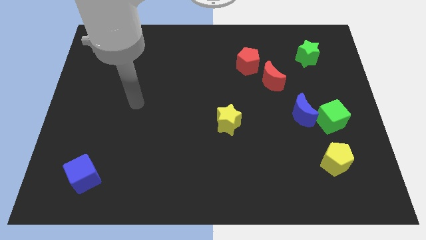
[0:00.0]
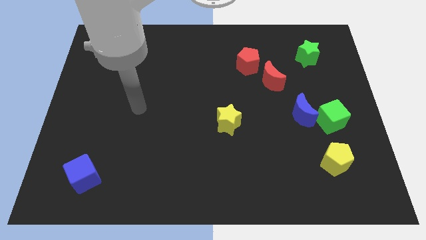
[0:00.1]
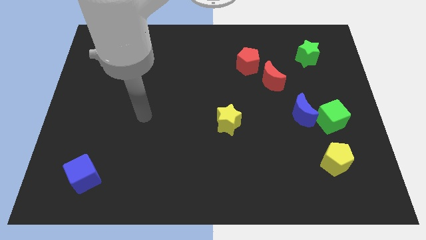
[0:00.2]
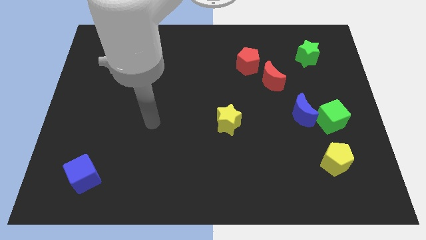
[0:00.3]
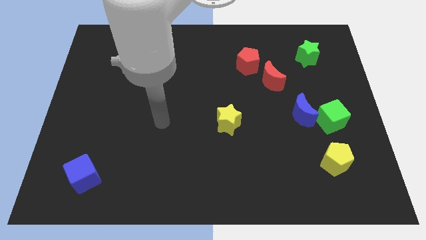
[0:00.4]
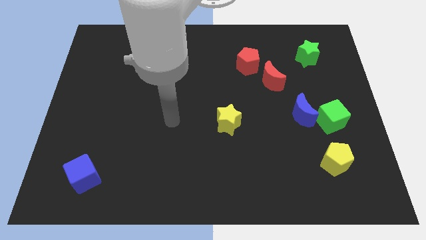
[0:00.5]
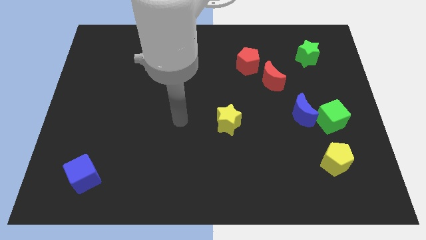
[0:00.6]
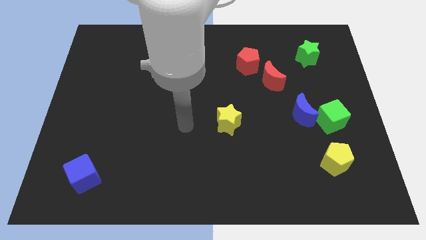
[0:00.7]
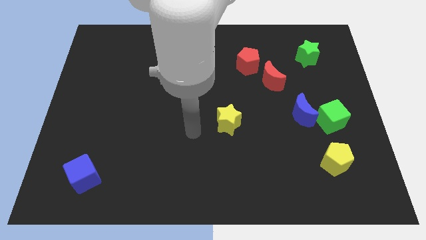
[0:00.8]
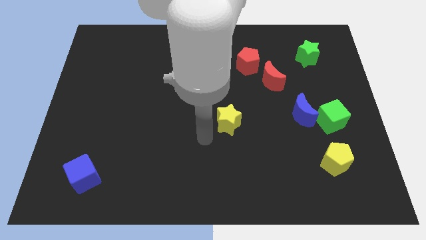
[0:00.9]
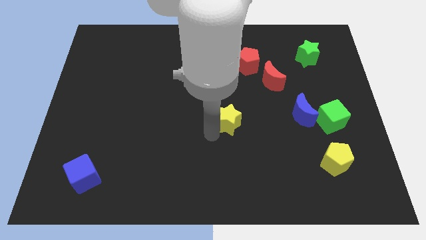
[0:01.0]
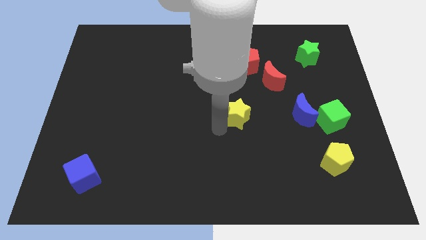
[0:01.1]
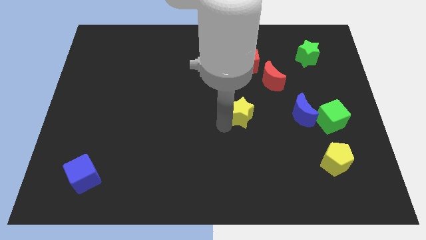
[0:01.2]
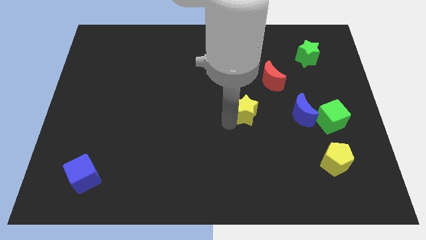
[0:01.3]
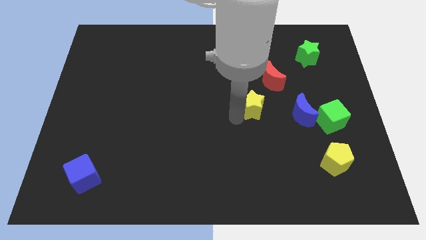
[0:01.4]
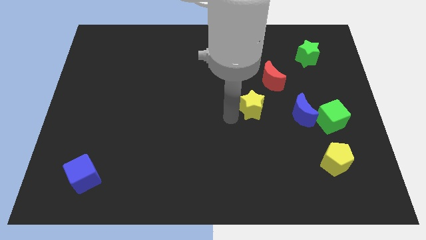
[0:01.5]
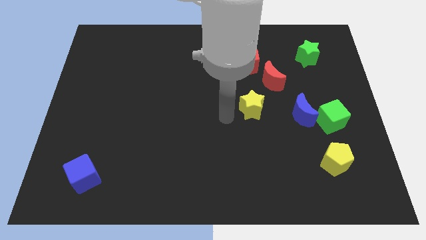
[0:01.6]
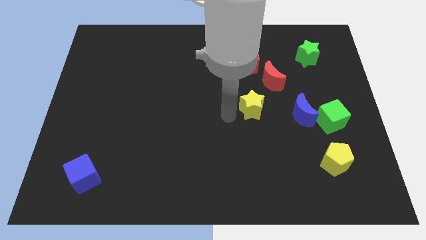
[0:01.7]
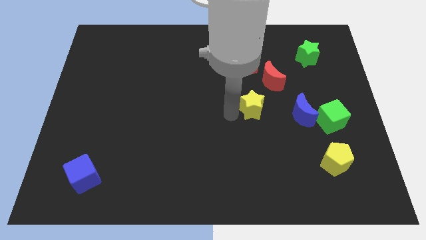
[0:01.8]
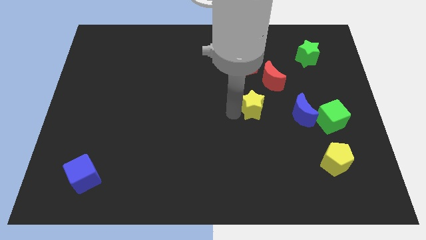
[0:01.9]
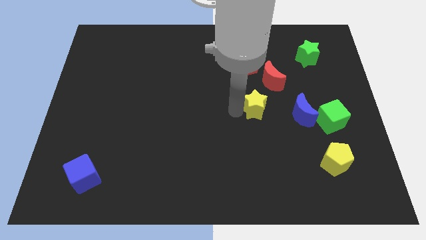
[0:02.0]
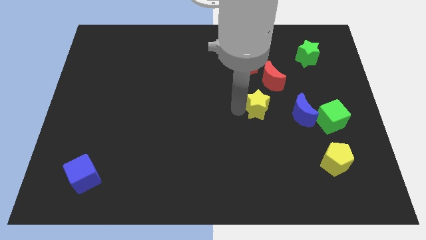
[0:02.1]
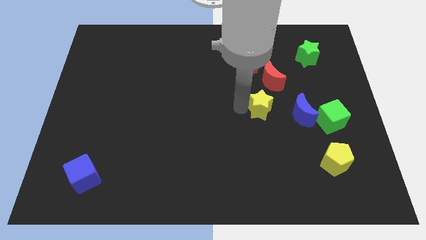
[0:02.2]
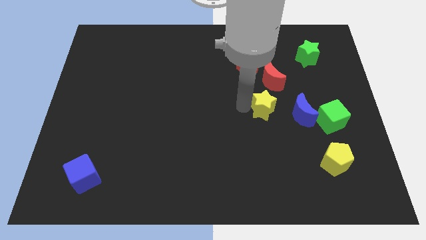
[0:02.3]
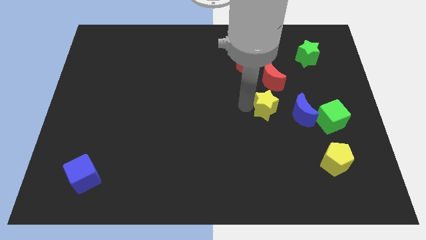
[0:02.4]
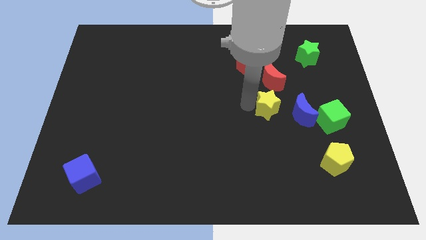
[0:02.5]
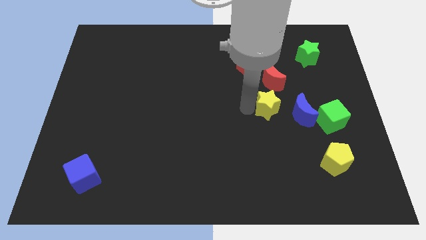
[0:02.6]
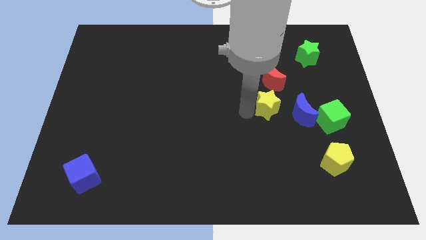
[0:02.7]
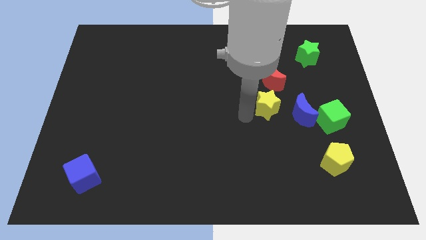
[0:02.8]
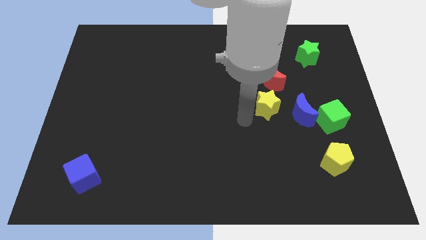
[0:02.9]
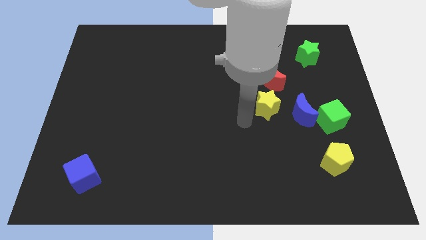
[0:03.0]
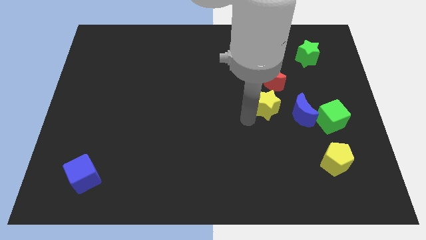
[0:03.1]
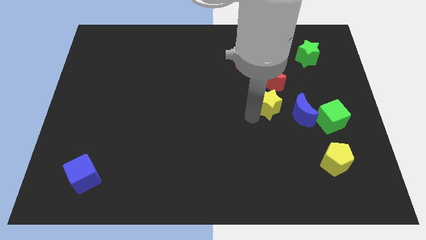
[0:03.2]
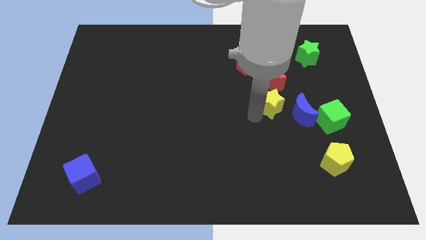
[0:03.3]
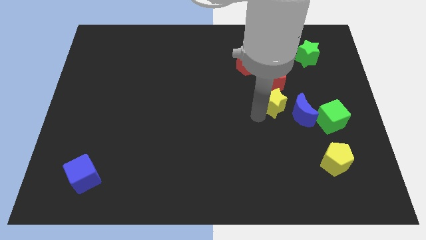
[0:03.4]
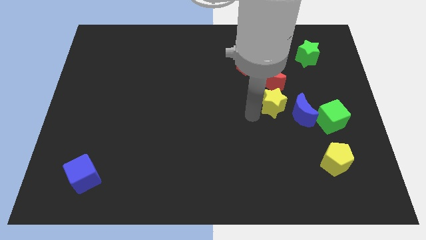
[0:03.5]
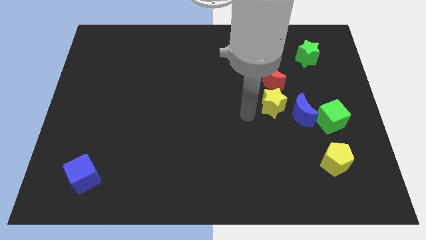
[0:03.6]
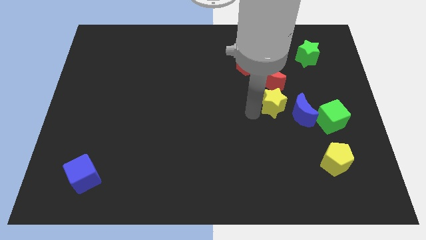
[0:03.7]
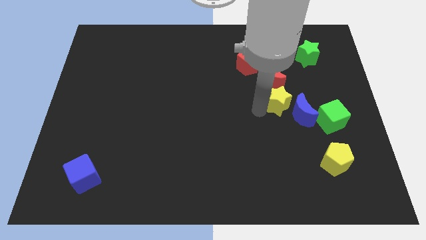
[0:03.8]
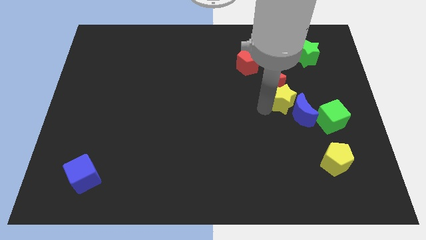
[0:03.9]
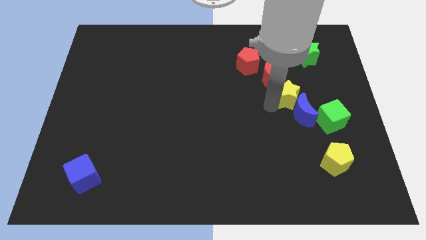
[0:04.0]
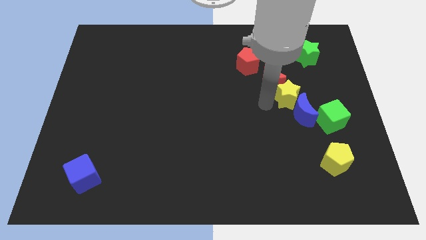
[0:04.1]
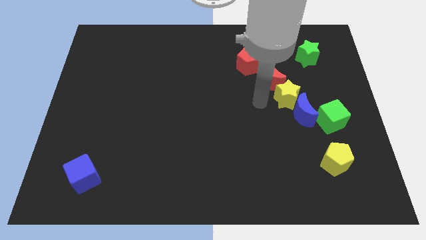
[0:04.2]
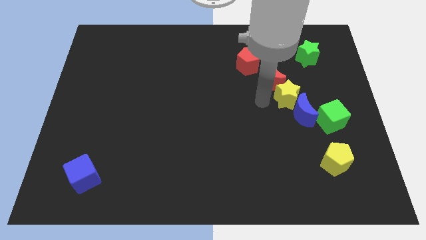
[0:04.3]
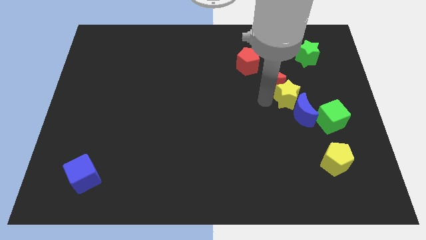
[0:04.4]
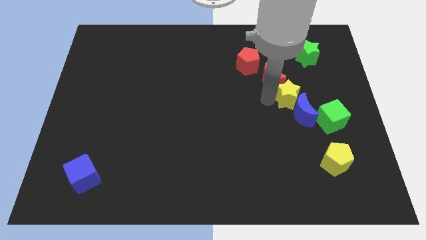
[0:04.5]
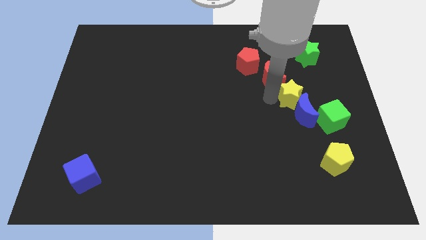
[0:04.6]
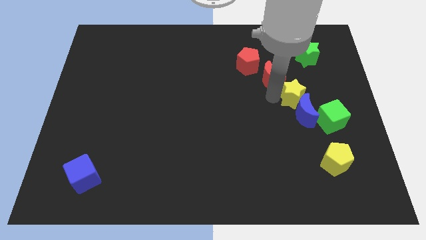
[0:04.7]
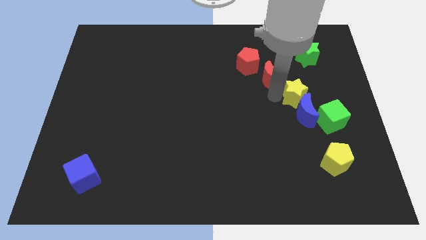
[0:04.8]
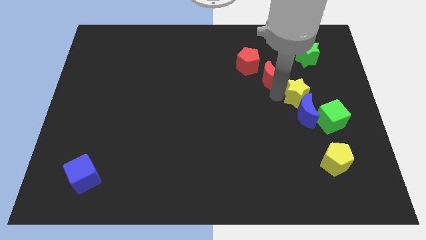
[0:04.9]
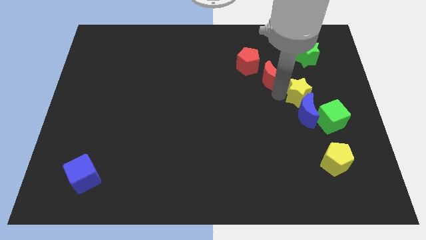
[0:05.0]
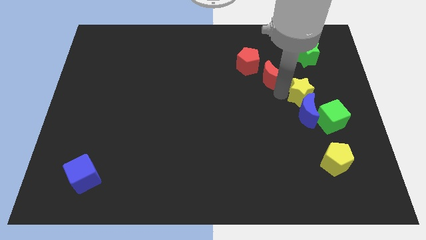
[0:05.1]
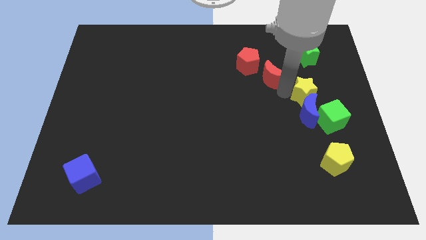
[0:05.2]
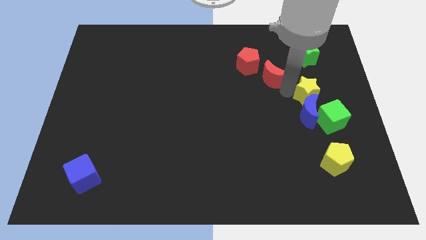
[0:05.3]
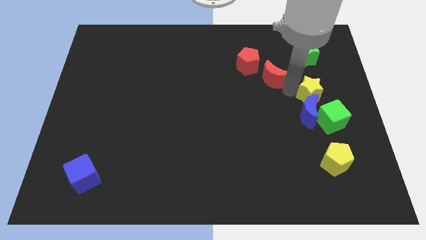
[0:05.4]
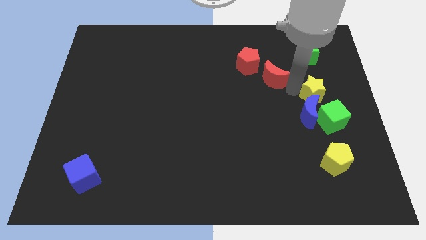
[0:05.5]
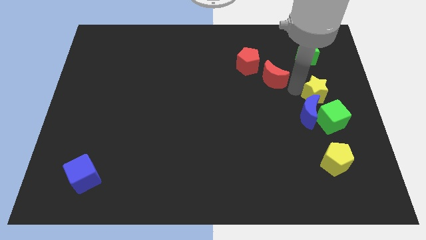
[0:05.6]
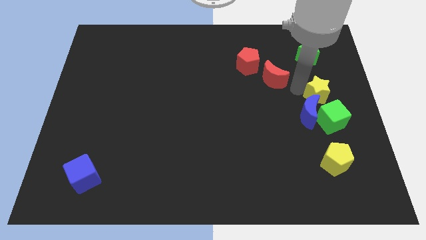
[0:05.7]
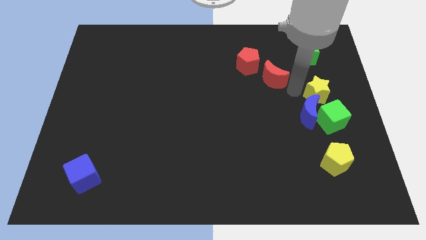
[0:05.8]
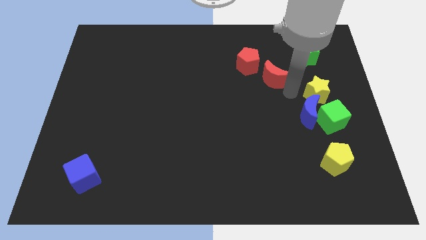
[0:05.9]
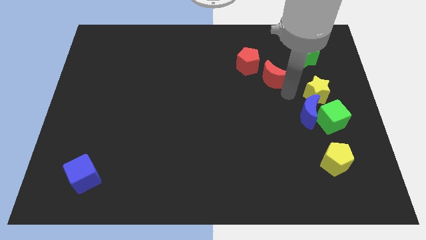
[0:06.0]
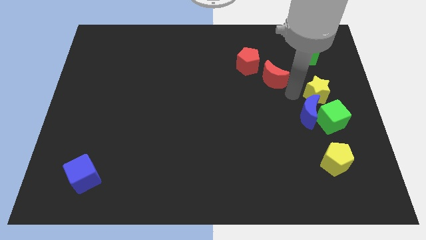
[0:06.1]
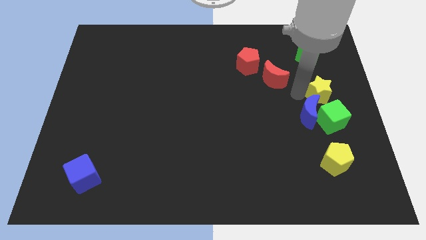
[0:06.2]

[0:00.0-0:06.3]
put the yellow star to the right side of the board

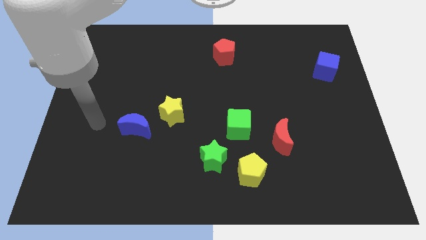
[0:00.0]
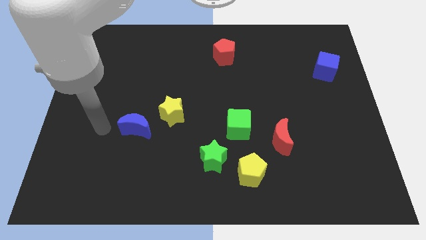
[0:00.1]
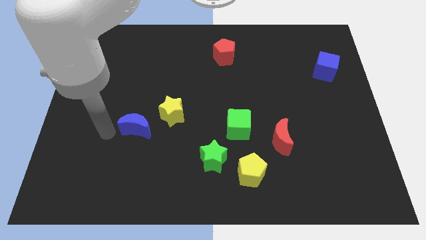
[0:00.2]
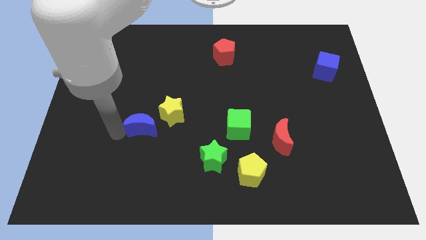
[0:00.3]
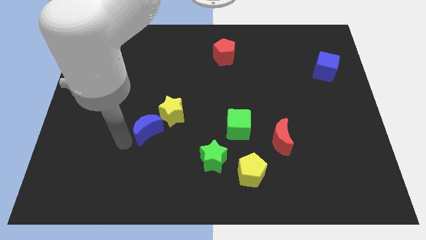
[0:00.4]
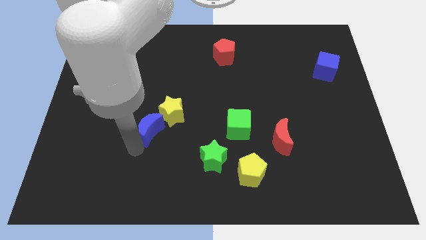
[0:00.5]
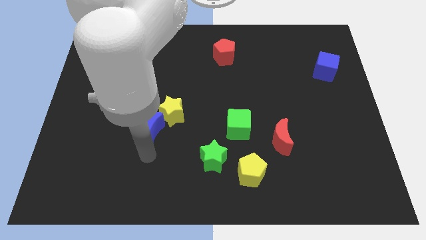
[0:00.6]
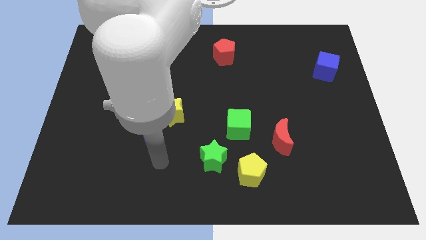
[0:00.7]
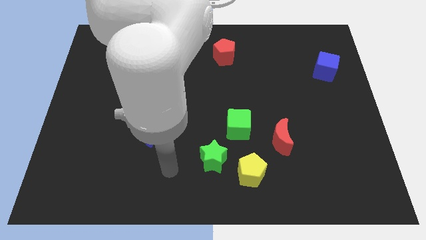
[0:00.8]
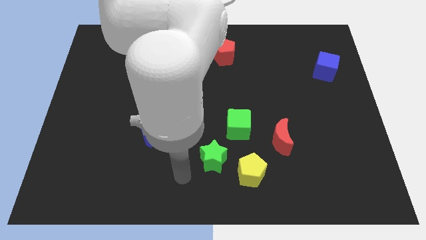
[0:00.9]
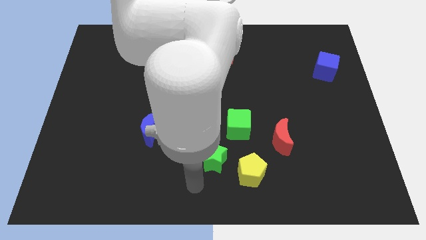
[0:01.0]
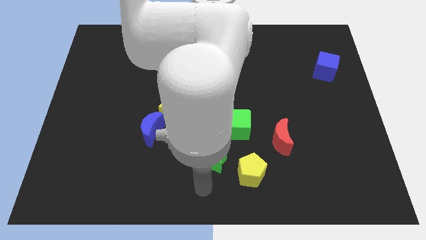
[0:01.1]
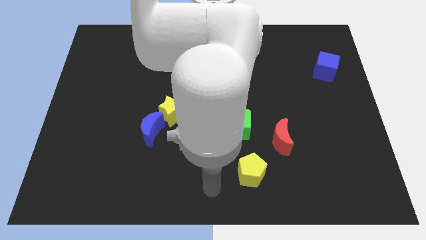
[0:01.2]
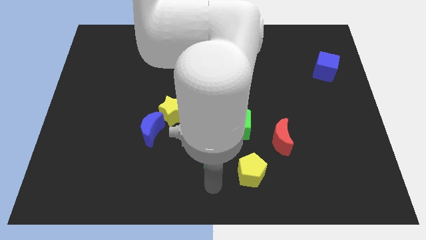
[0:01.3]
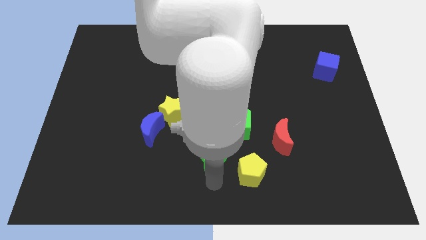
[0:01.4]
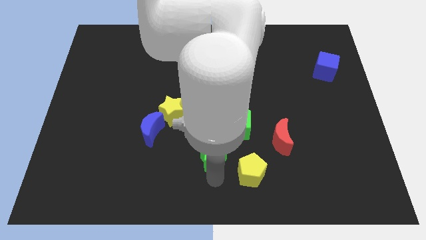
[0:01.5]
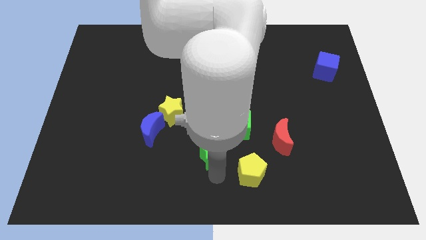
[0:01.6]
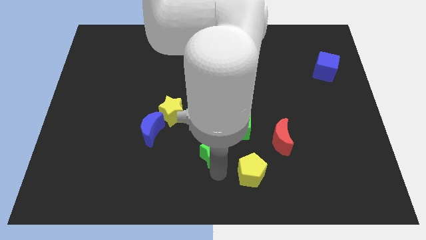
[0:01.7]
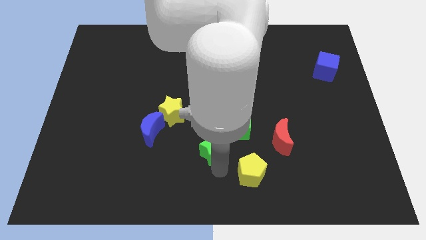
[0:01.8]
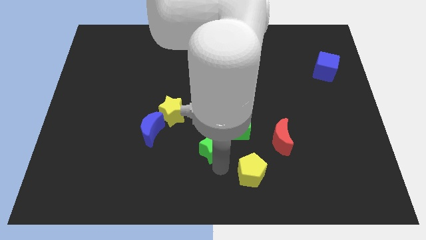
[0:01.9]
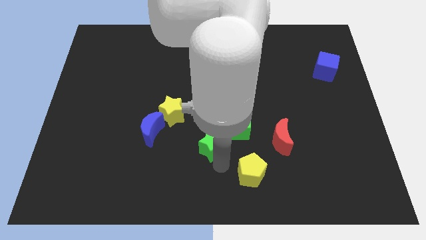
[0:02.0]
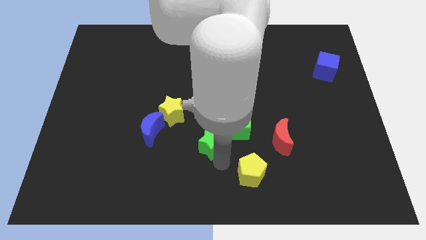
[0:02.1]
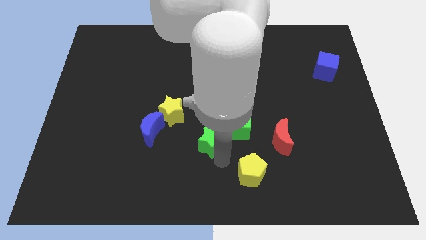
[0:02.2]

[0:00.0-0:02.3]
slide the green star to the middle of the board
